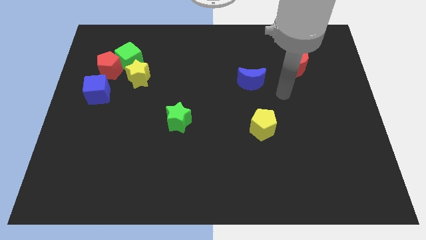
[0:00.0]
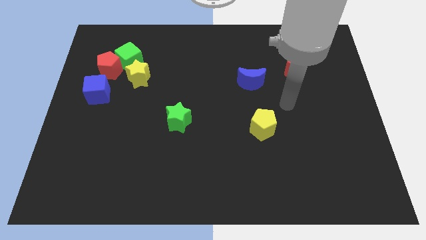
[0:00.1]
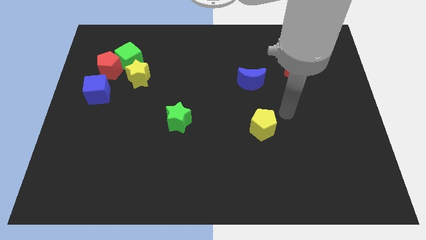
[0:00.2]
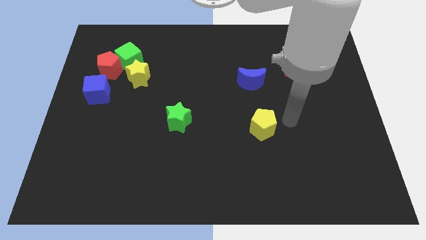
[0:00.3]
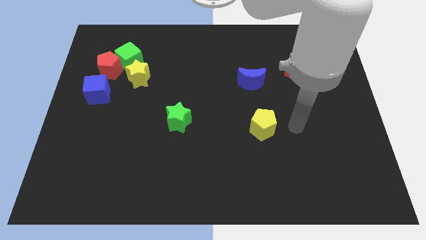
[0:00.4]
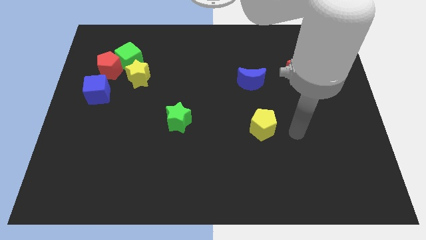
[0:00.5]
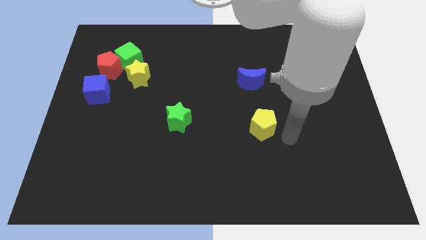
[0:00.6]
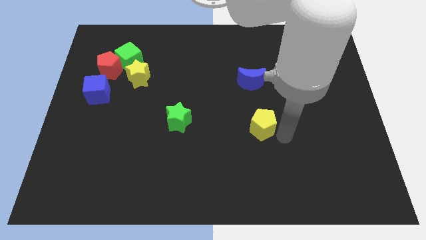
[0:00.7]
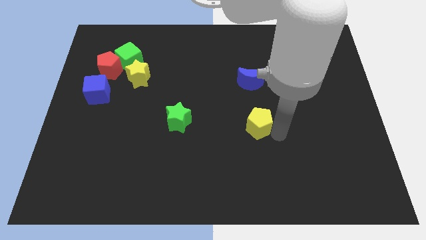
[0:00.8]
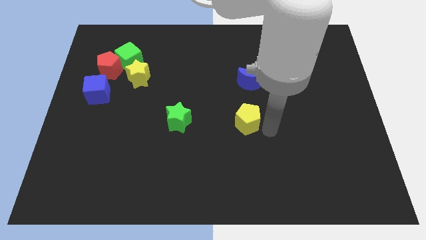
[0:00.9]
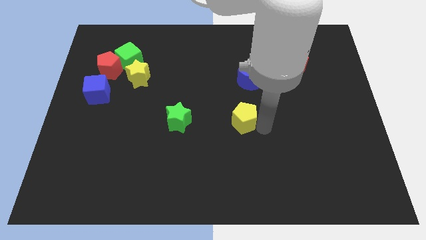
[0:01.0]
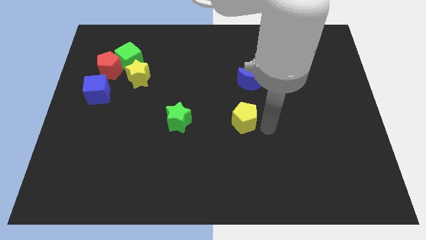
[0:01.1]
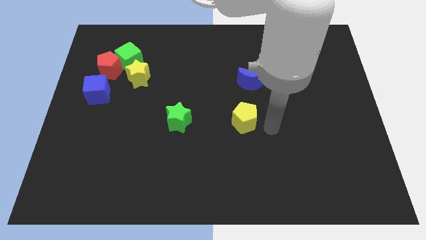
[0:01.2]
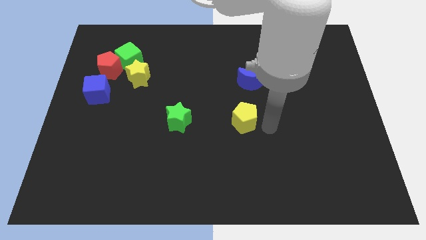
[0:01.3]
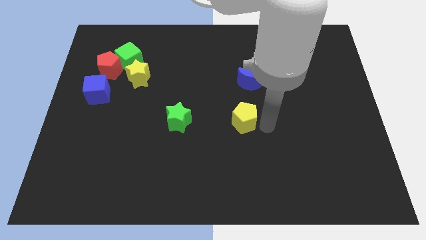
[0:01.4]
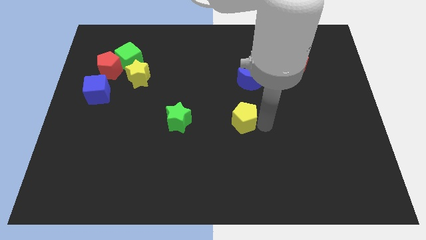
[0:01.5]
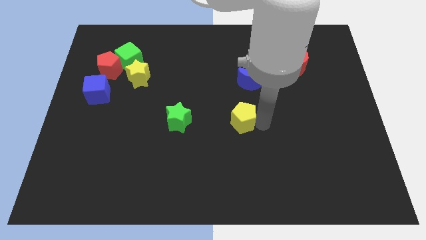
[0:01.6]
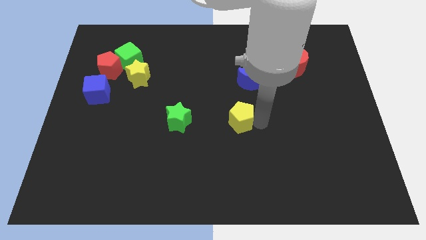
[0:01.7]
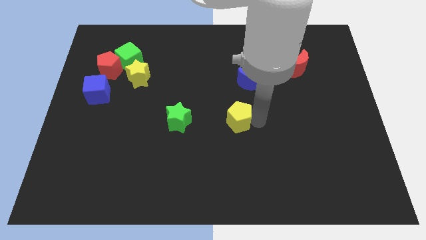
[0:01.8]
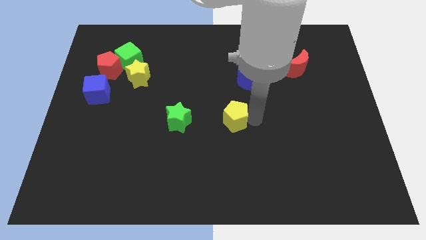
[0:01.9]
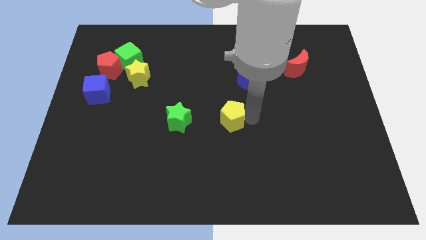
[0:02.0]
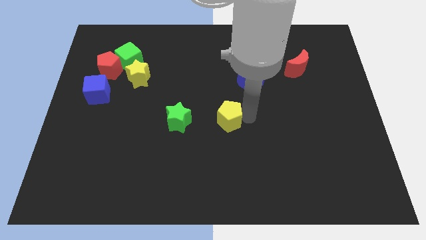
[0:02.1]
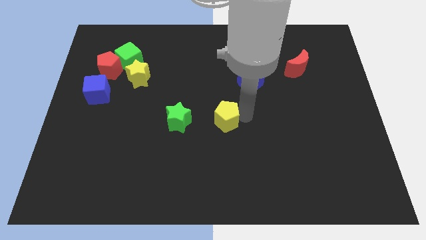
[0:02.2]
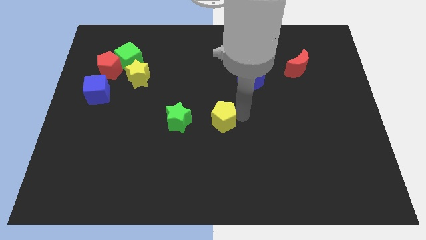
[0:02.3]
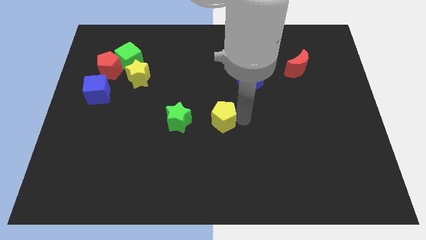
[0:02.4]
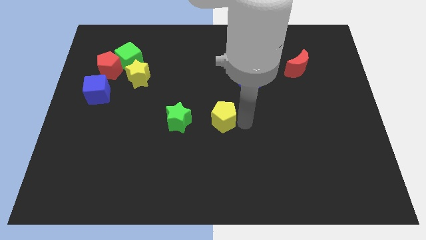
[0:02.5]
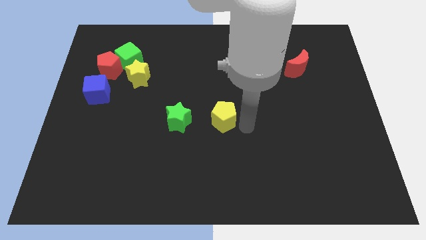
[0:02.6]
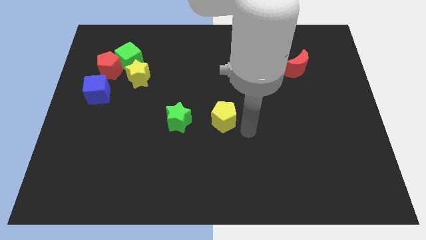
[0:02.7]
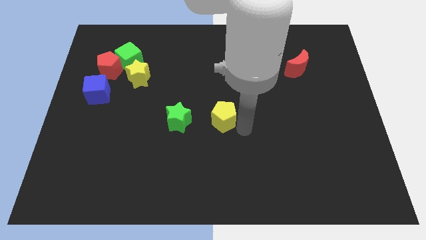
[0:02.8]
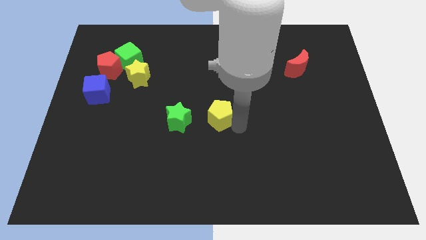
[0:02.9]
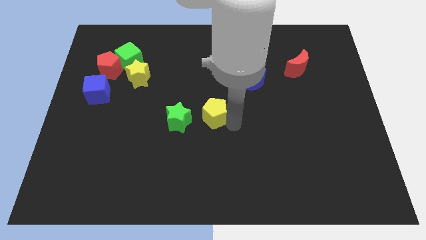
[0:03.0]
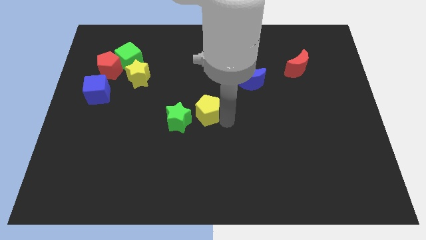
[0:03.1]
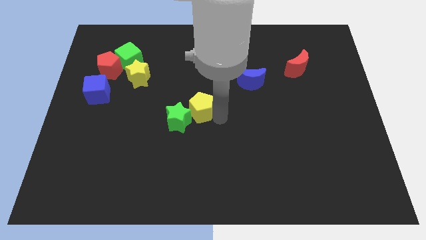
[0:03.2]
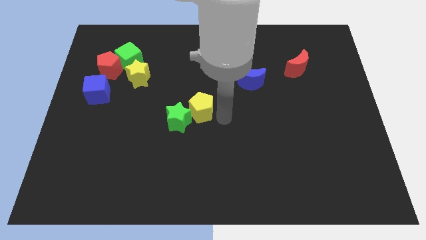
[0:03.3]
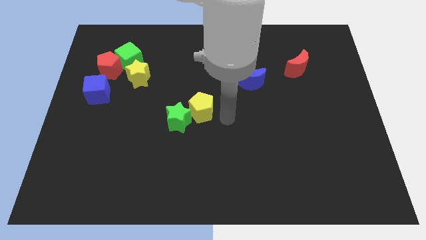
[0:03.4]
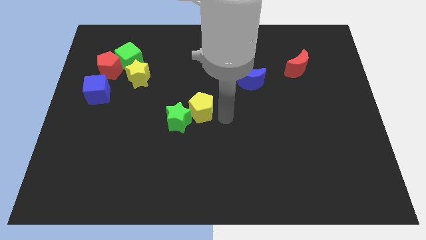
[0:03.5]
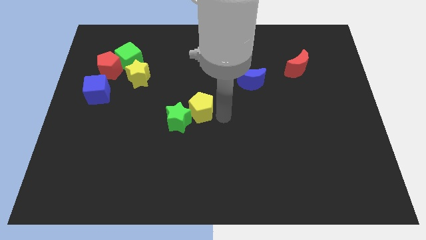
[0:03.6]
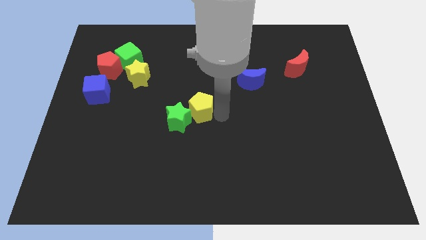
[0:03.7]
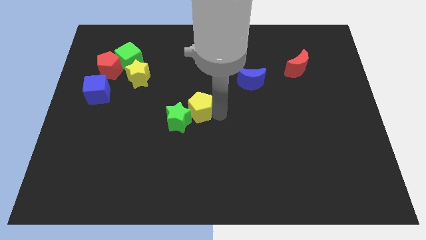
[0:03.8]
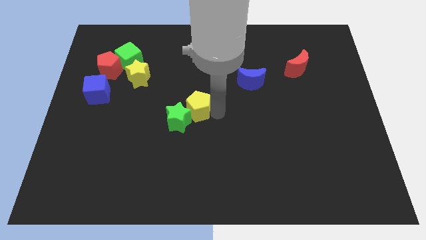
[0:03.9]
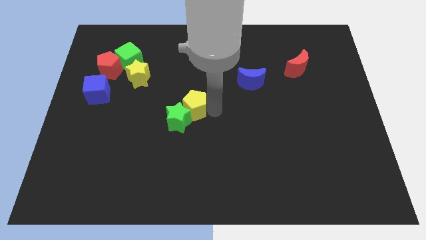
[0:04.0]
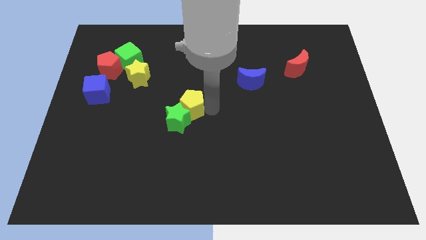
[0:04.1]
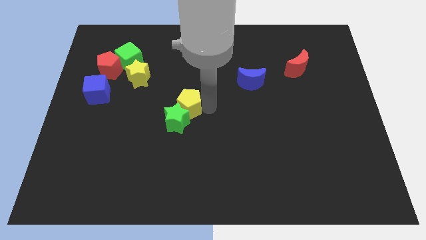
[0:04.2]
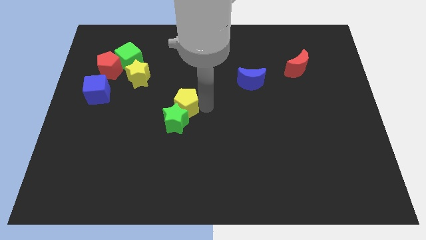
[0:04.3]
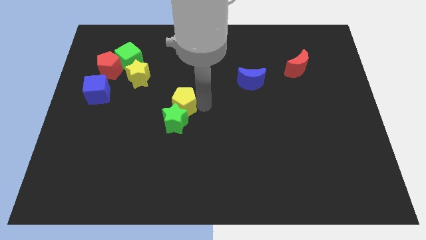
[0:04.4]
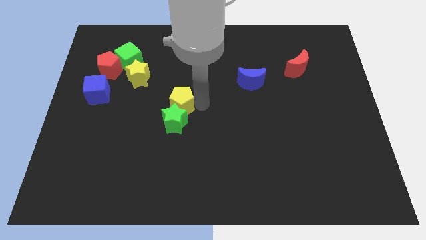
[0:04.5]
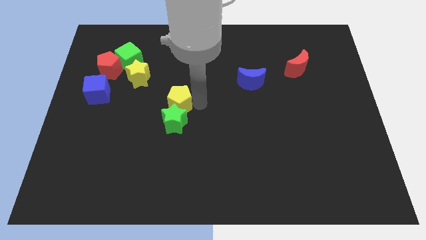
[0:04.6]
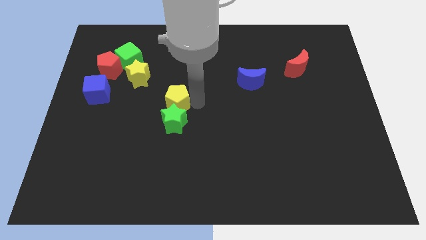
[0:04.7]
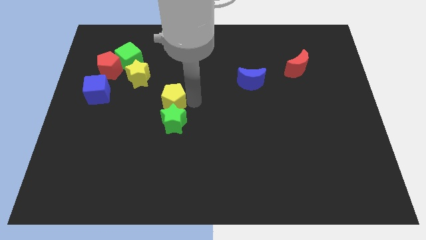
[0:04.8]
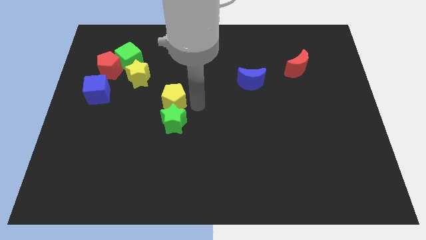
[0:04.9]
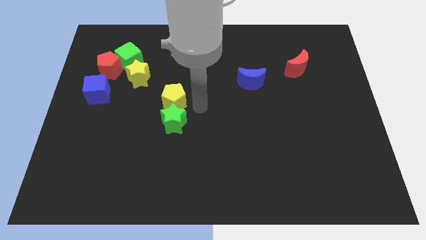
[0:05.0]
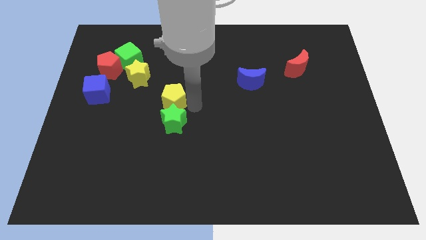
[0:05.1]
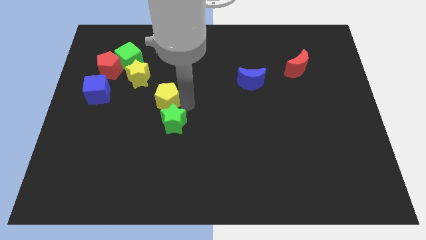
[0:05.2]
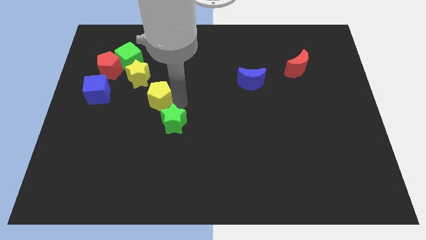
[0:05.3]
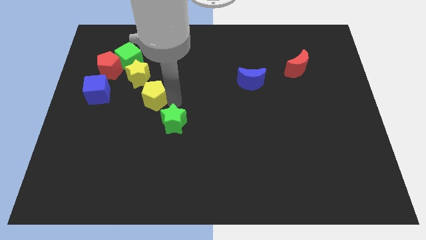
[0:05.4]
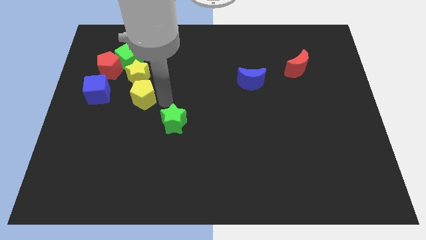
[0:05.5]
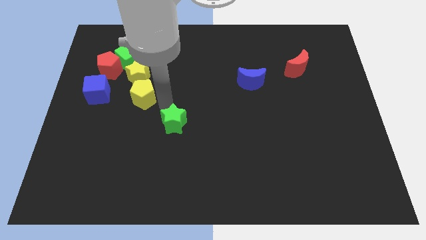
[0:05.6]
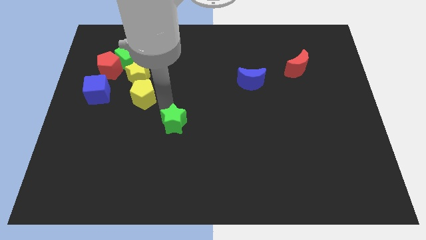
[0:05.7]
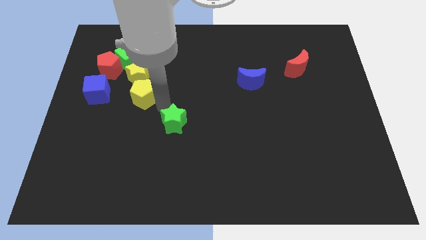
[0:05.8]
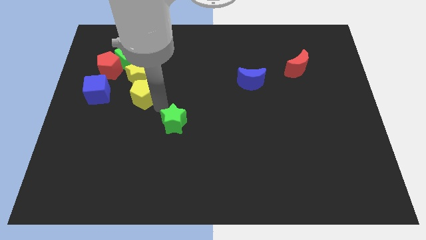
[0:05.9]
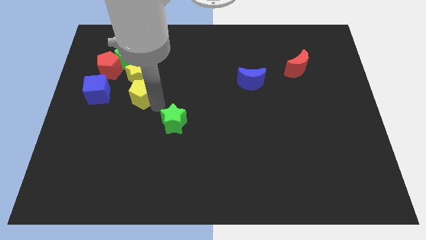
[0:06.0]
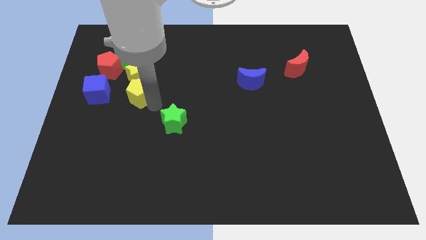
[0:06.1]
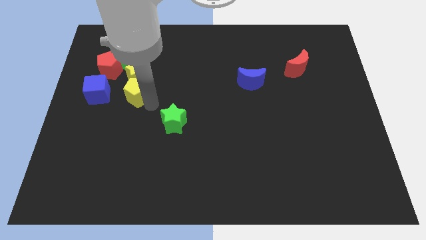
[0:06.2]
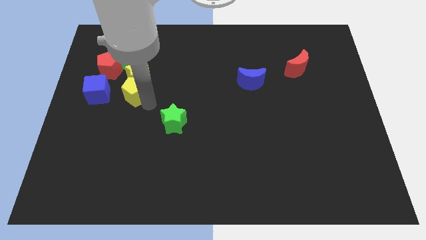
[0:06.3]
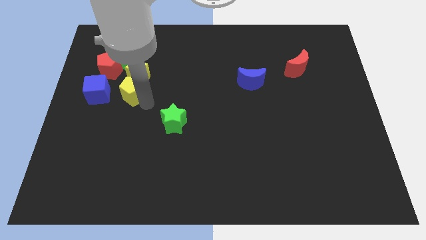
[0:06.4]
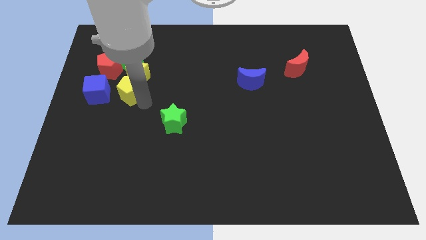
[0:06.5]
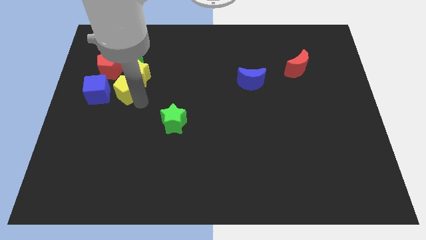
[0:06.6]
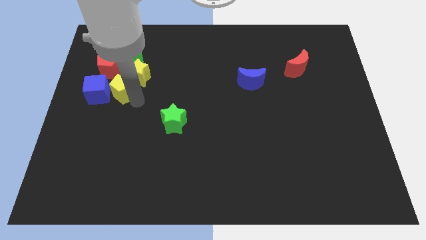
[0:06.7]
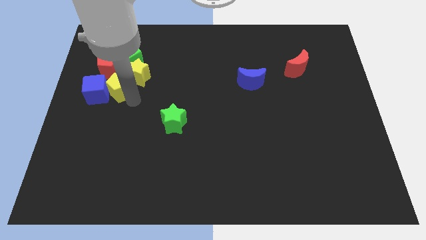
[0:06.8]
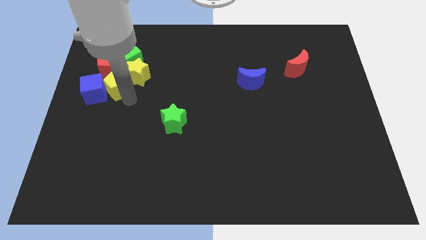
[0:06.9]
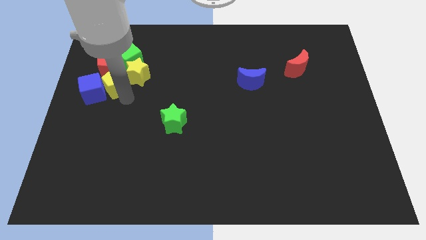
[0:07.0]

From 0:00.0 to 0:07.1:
put the yellow pentagon to the red pentagon
